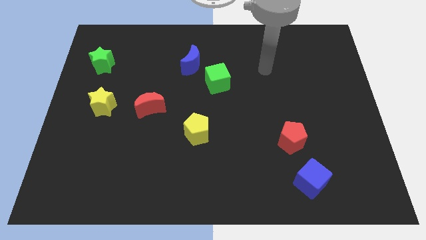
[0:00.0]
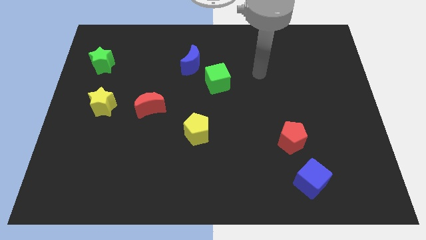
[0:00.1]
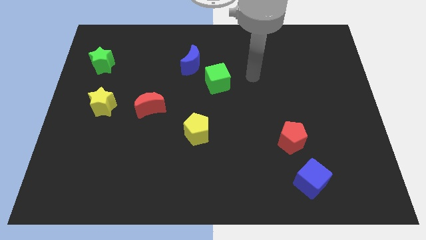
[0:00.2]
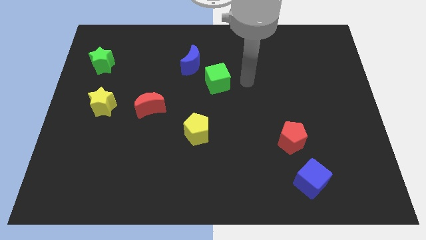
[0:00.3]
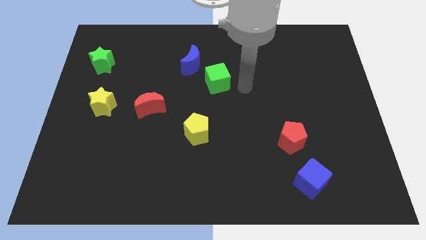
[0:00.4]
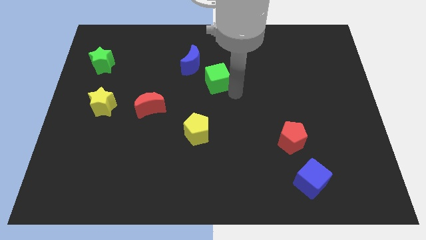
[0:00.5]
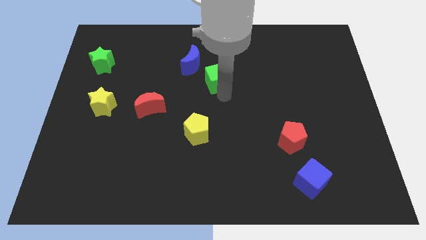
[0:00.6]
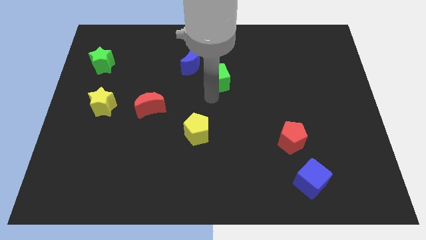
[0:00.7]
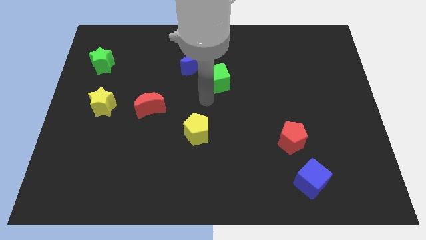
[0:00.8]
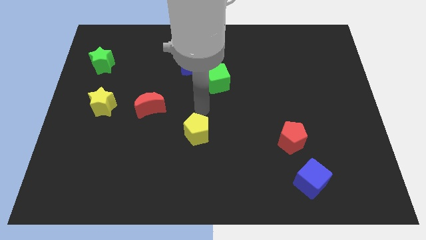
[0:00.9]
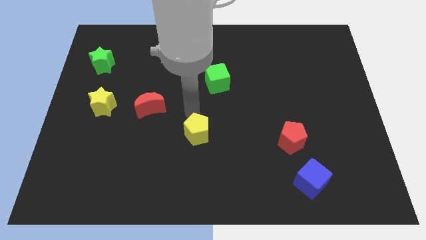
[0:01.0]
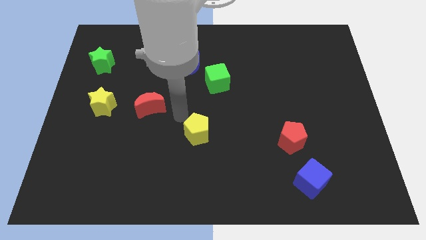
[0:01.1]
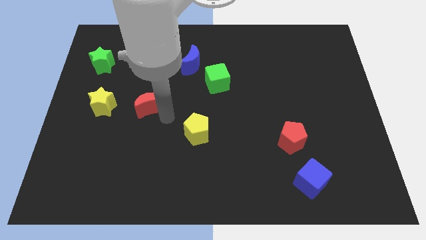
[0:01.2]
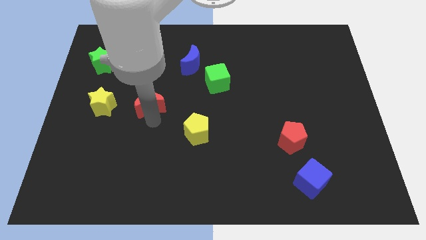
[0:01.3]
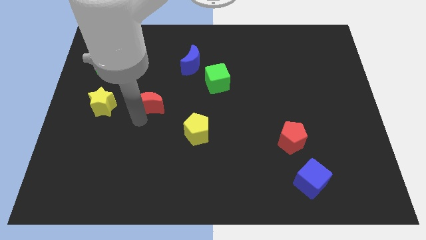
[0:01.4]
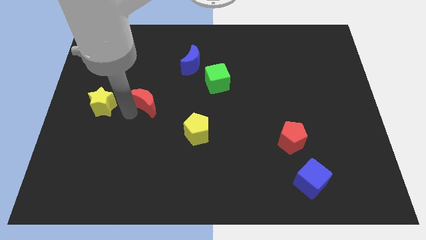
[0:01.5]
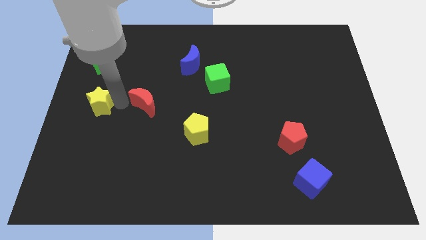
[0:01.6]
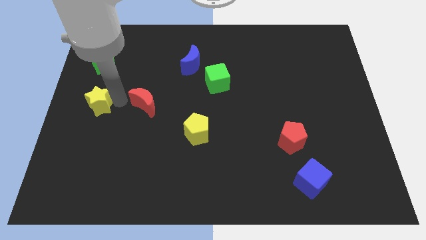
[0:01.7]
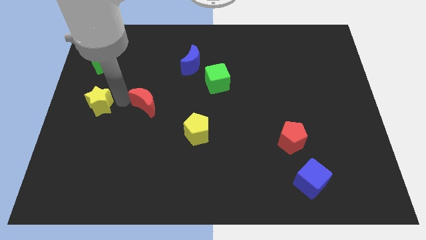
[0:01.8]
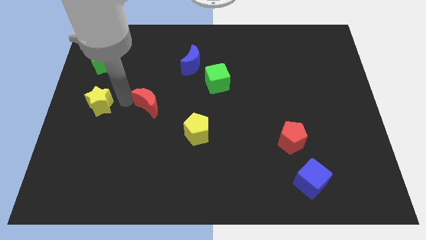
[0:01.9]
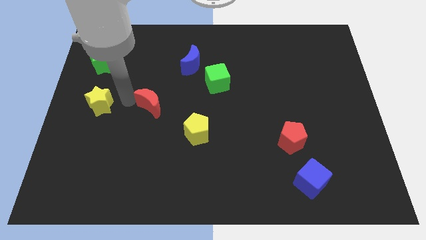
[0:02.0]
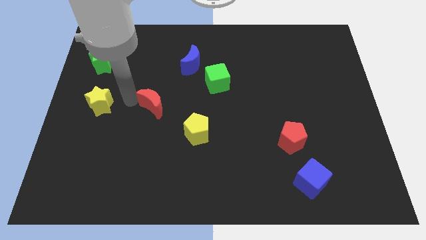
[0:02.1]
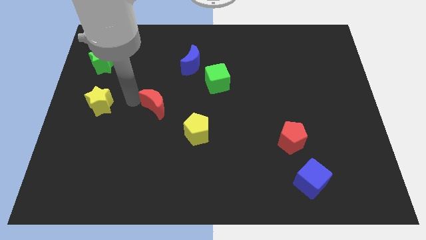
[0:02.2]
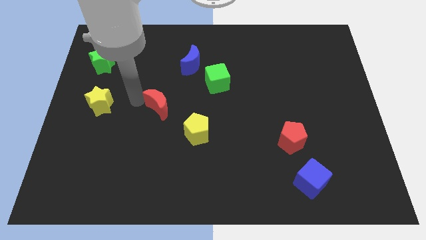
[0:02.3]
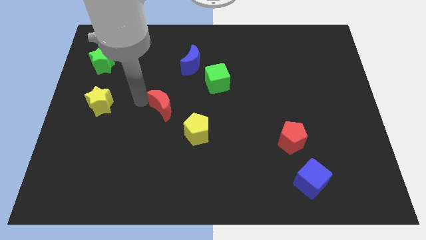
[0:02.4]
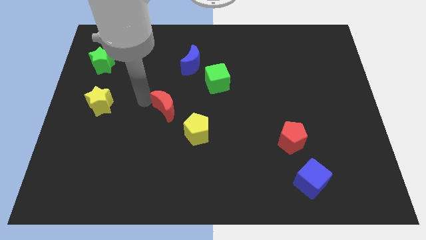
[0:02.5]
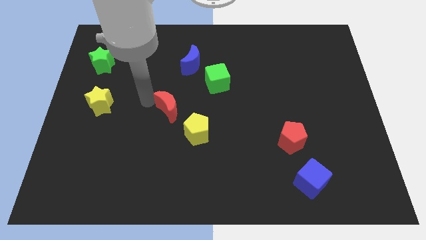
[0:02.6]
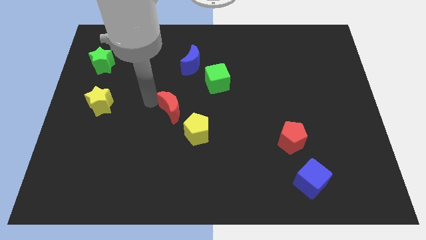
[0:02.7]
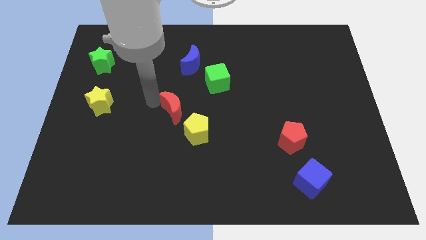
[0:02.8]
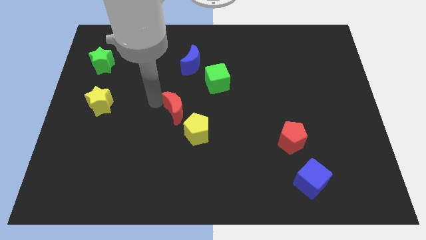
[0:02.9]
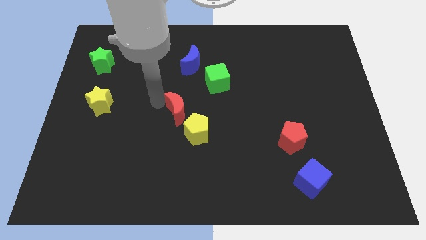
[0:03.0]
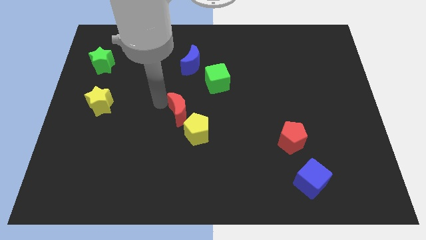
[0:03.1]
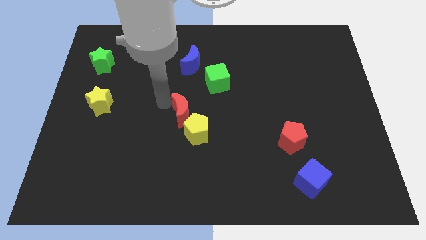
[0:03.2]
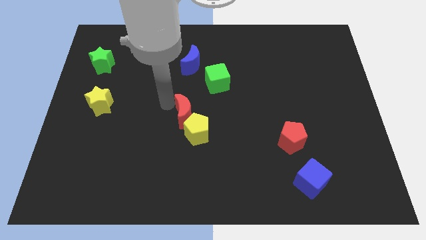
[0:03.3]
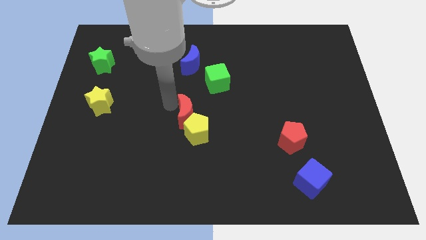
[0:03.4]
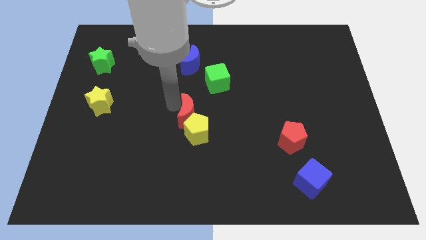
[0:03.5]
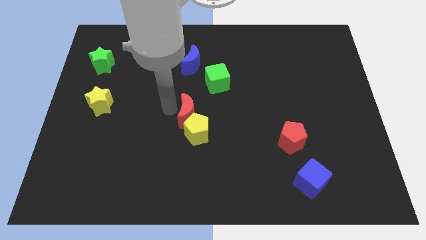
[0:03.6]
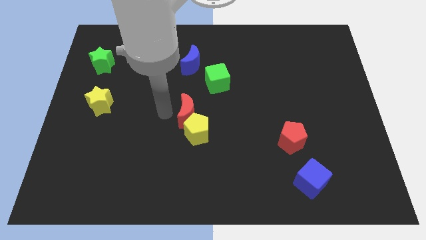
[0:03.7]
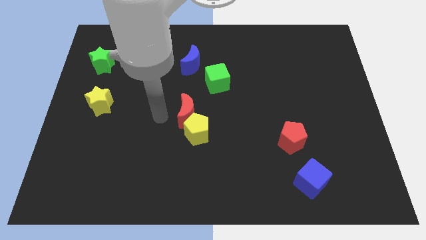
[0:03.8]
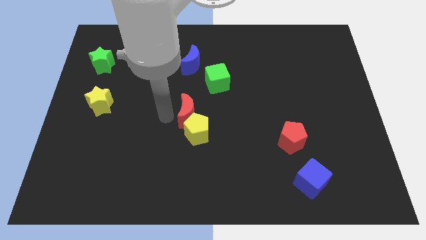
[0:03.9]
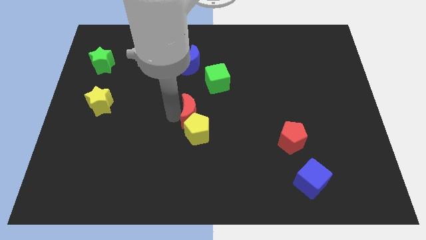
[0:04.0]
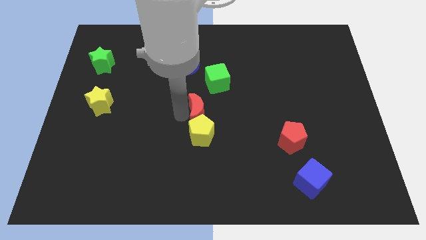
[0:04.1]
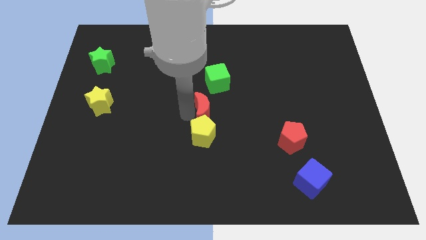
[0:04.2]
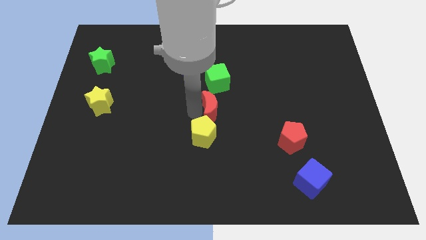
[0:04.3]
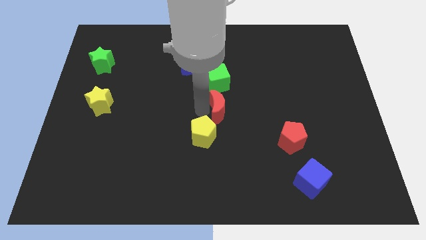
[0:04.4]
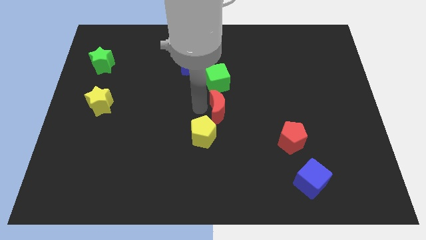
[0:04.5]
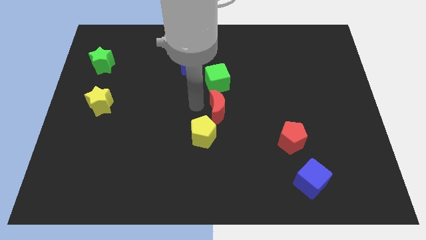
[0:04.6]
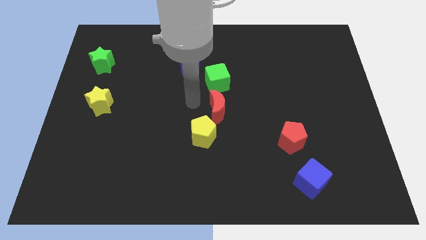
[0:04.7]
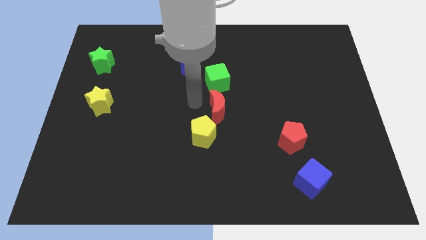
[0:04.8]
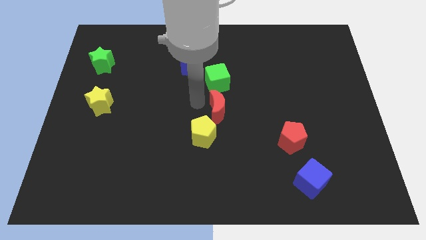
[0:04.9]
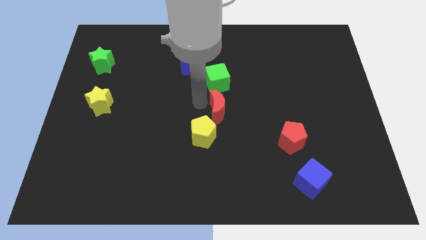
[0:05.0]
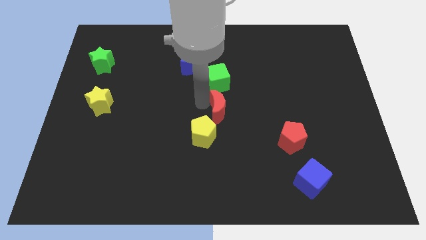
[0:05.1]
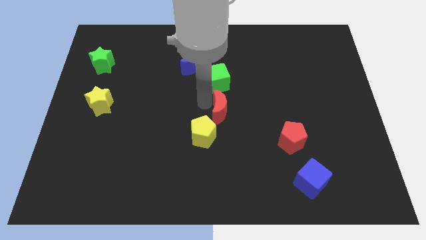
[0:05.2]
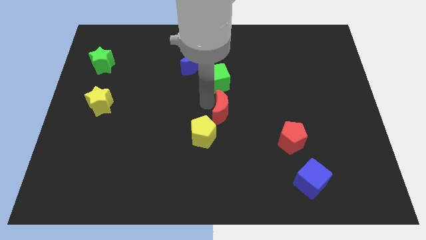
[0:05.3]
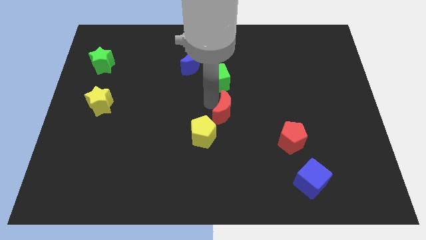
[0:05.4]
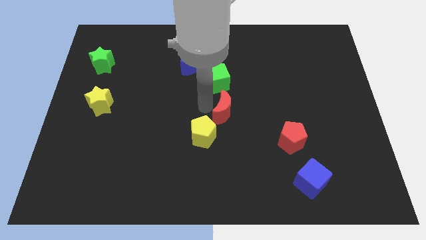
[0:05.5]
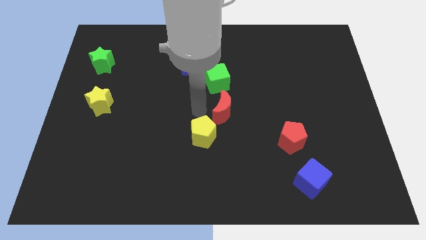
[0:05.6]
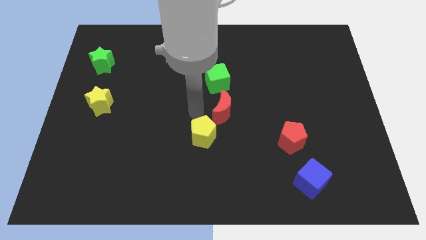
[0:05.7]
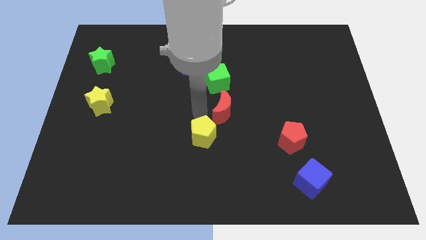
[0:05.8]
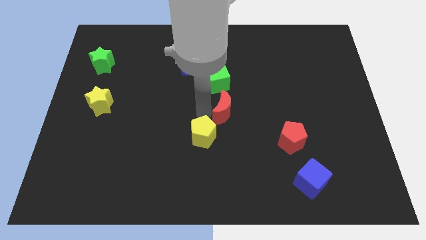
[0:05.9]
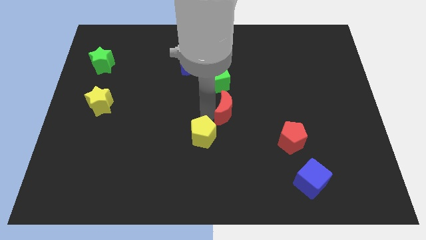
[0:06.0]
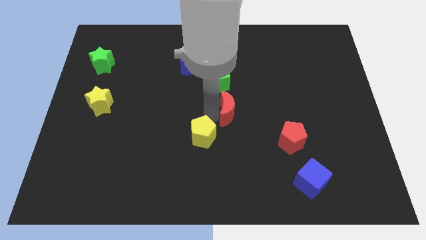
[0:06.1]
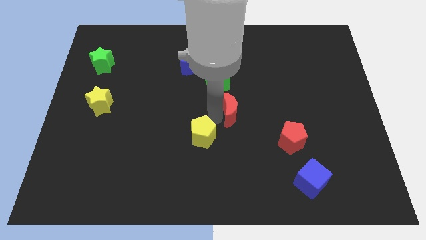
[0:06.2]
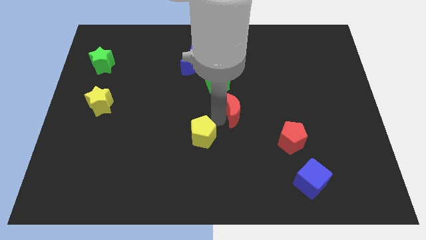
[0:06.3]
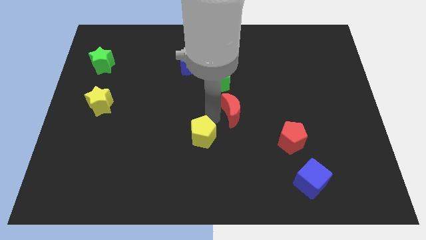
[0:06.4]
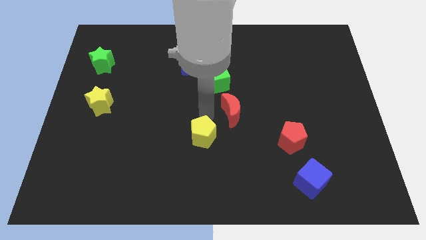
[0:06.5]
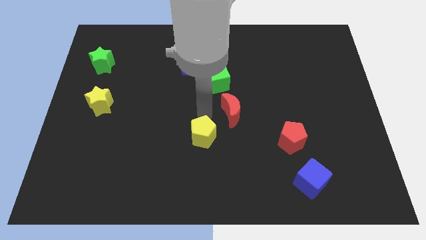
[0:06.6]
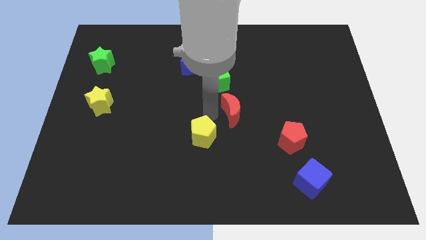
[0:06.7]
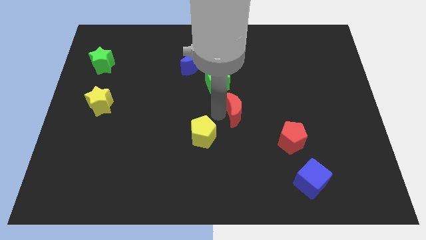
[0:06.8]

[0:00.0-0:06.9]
push the red moon right

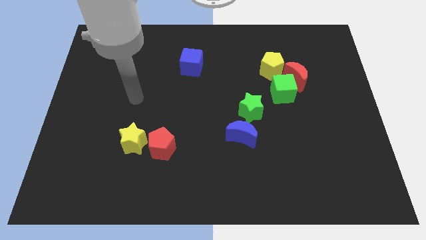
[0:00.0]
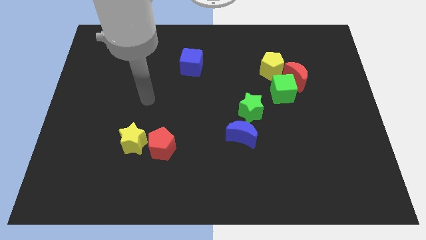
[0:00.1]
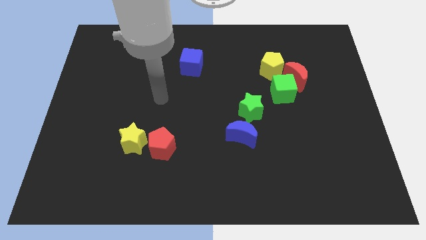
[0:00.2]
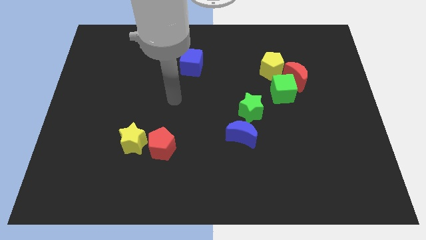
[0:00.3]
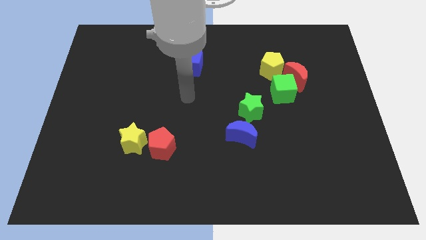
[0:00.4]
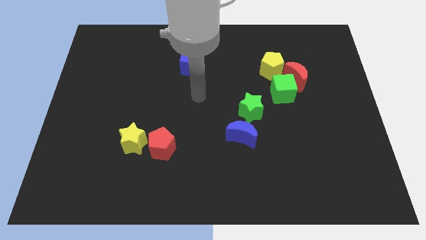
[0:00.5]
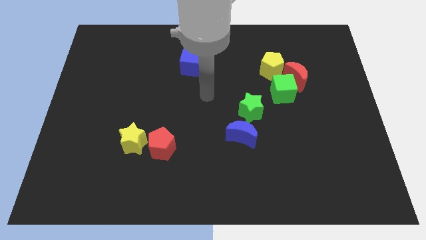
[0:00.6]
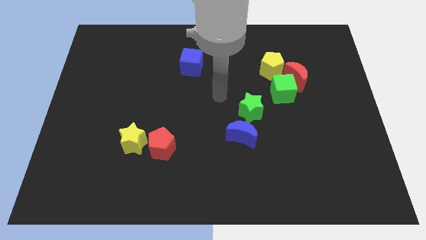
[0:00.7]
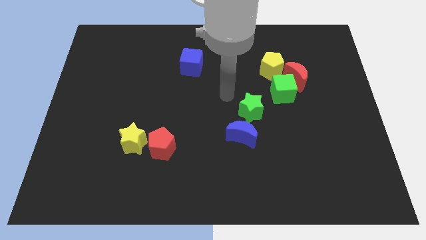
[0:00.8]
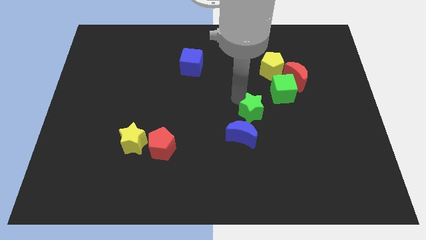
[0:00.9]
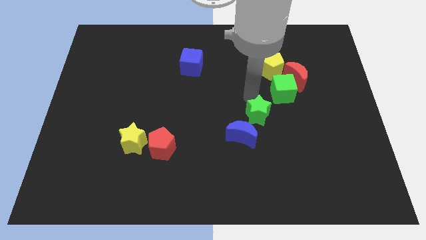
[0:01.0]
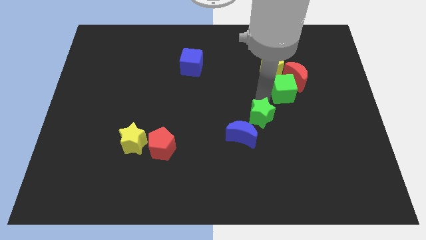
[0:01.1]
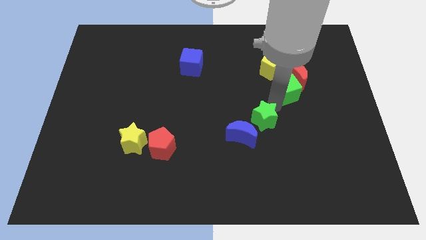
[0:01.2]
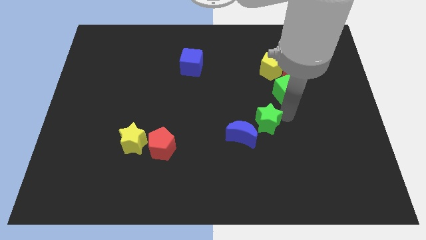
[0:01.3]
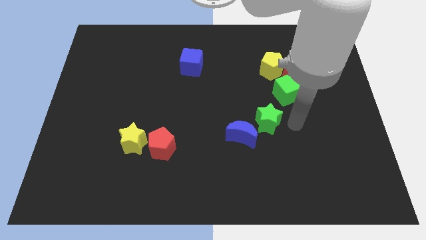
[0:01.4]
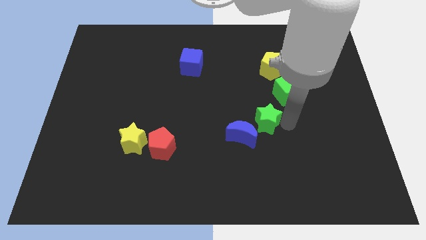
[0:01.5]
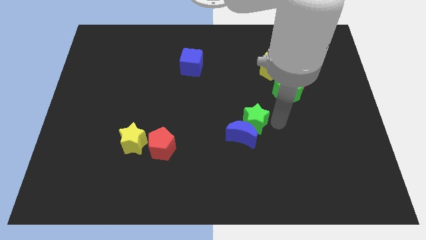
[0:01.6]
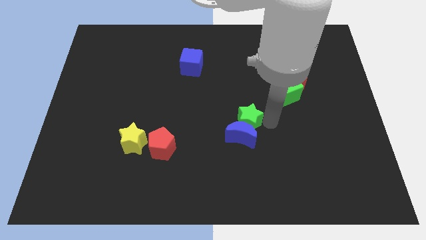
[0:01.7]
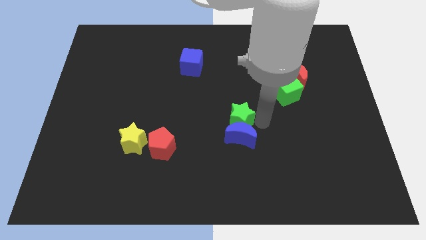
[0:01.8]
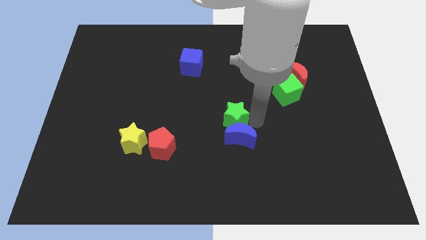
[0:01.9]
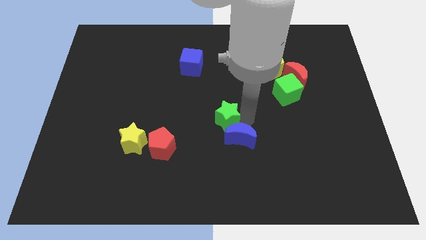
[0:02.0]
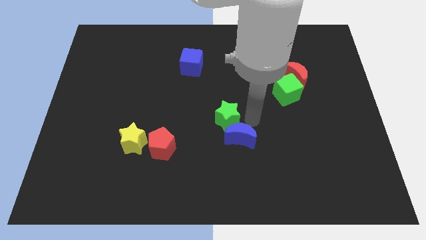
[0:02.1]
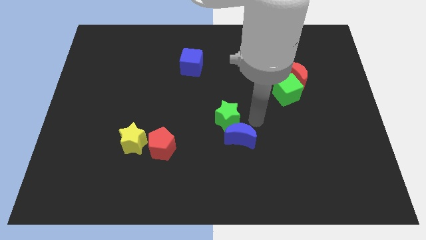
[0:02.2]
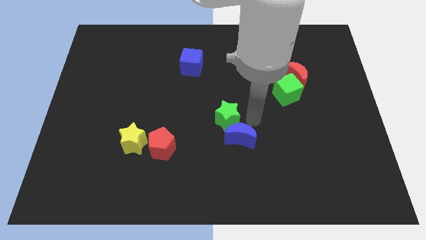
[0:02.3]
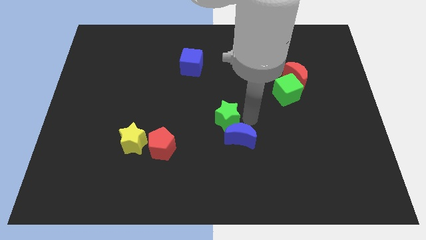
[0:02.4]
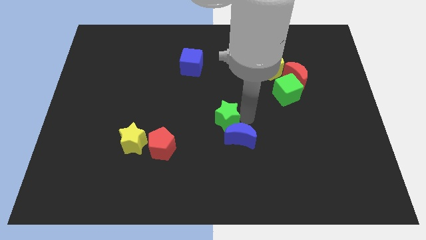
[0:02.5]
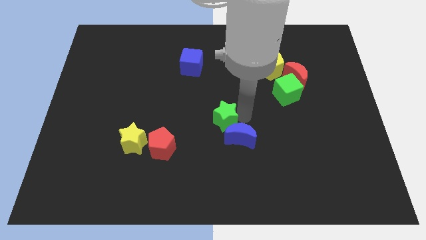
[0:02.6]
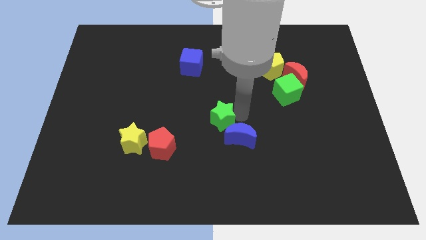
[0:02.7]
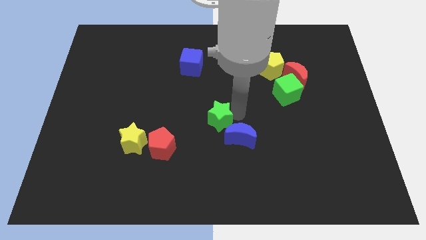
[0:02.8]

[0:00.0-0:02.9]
slightly slide the green star left
